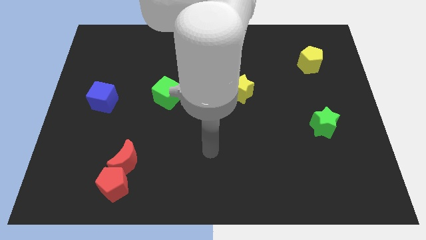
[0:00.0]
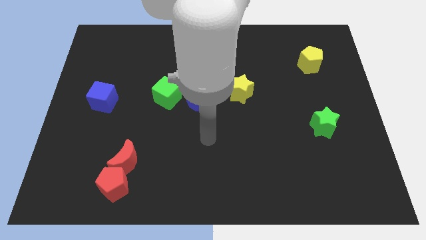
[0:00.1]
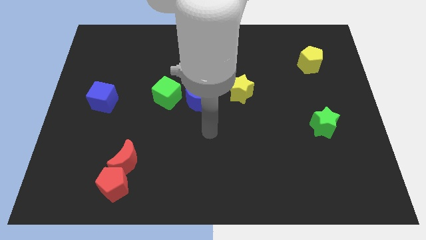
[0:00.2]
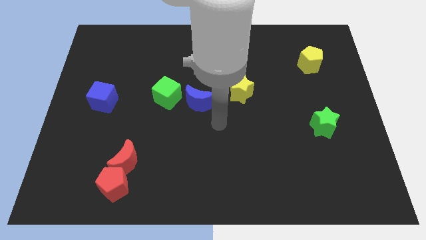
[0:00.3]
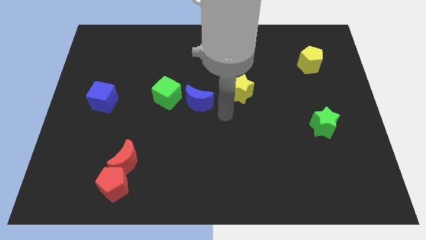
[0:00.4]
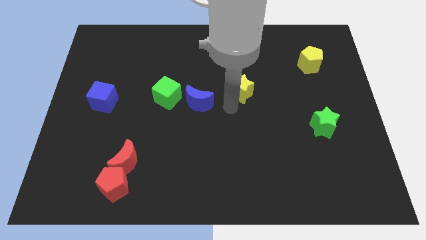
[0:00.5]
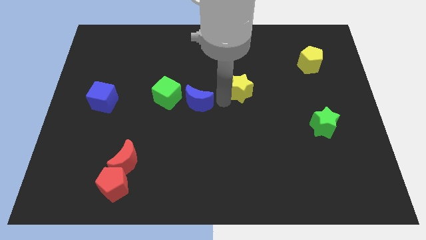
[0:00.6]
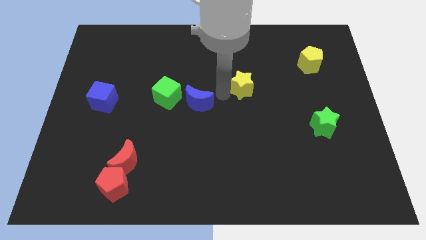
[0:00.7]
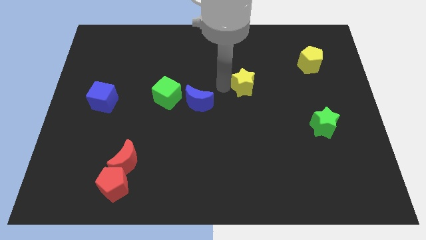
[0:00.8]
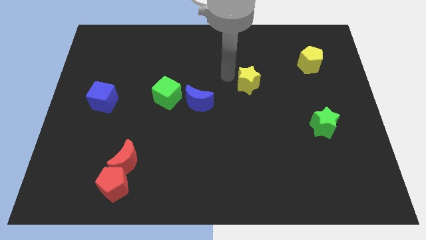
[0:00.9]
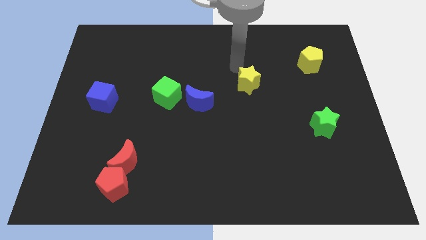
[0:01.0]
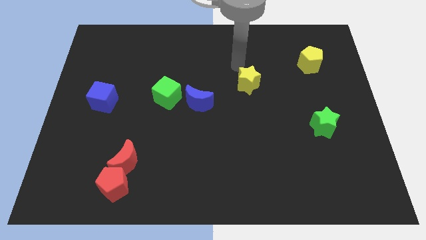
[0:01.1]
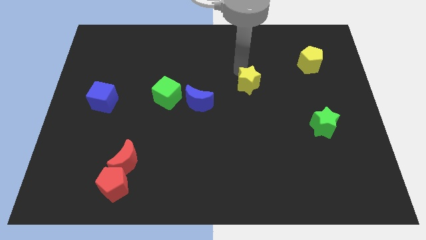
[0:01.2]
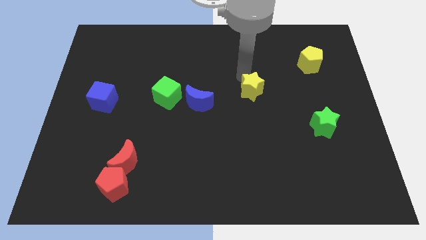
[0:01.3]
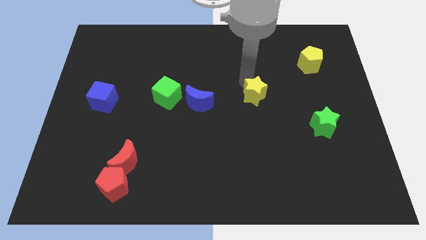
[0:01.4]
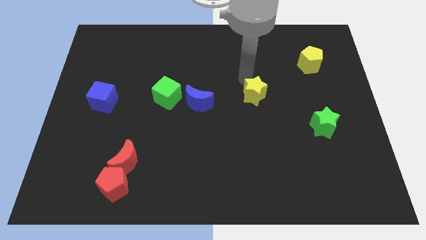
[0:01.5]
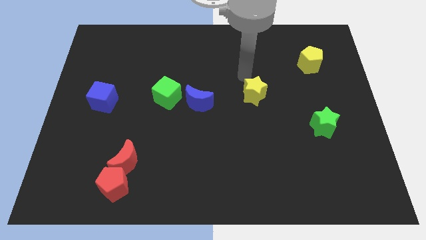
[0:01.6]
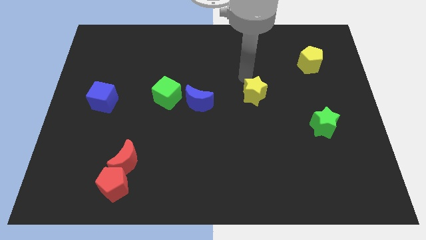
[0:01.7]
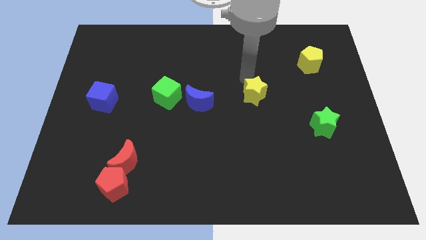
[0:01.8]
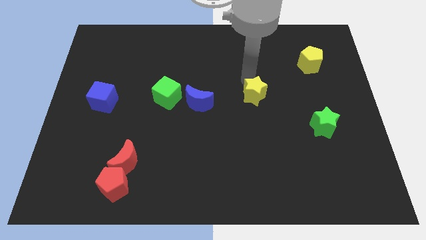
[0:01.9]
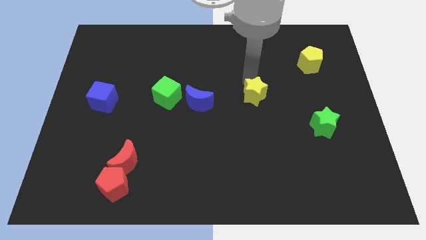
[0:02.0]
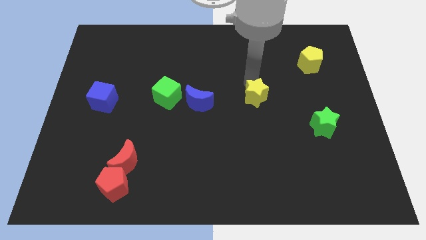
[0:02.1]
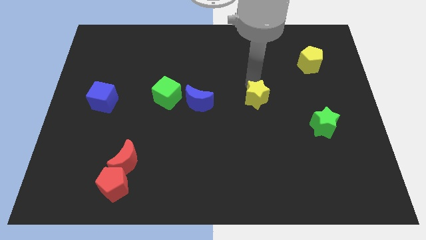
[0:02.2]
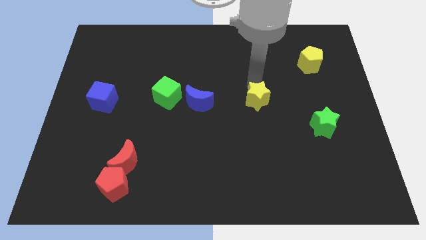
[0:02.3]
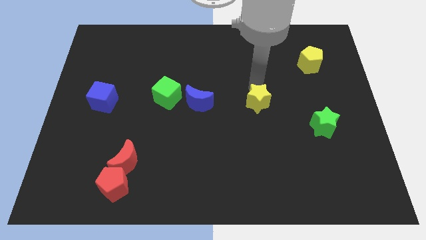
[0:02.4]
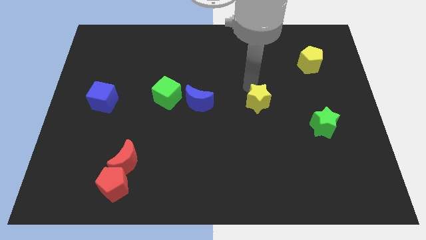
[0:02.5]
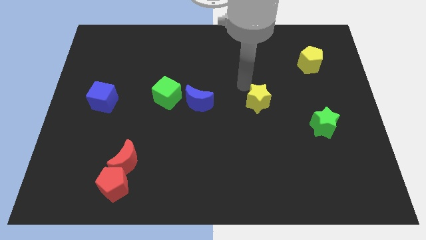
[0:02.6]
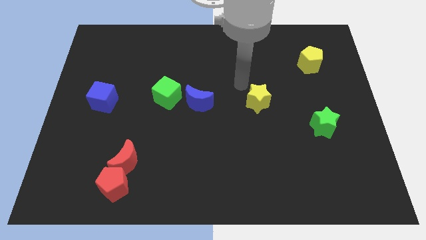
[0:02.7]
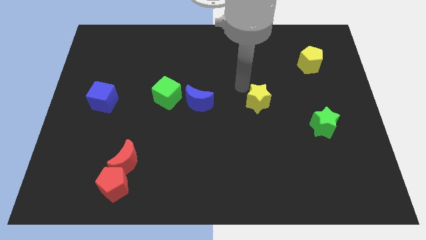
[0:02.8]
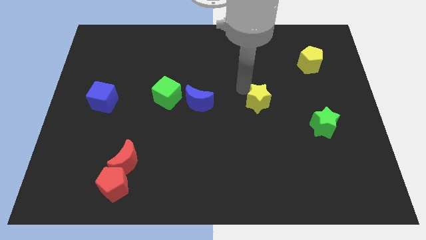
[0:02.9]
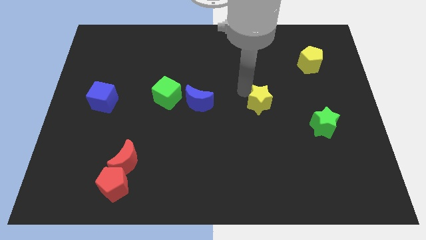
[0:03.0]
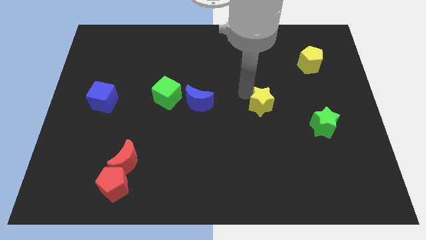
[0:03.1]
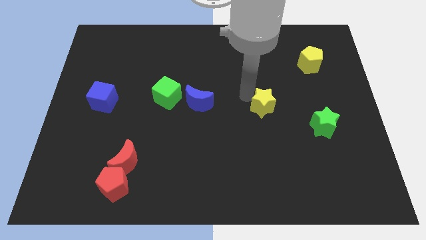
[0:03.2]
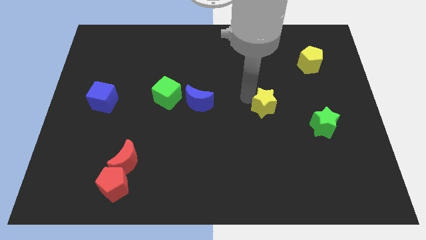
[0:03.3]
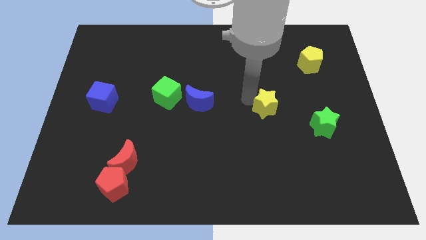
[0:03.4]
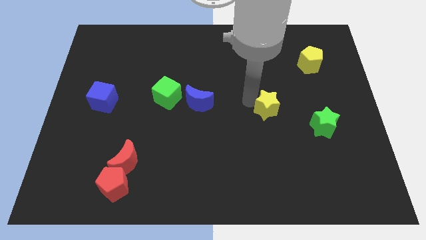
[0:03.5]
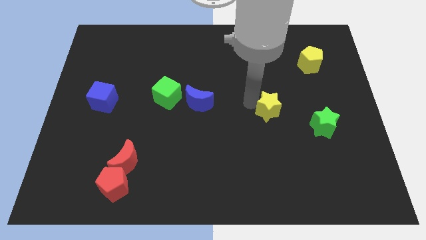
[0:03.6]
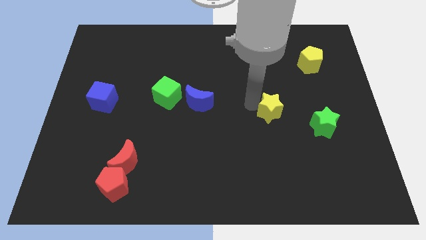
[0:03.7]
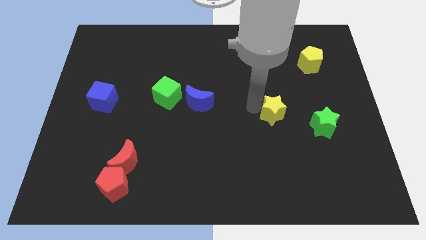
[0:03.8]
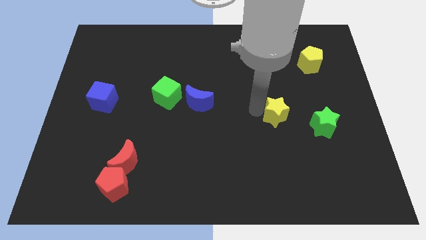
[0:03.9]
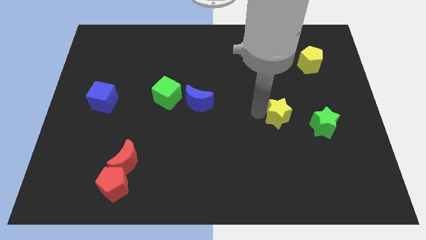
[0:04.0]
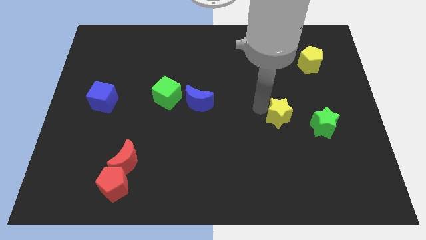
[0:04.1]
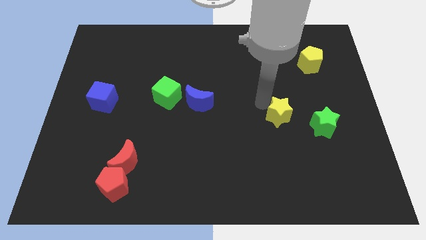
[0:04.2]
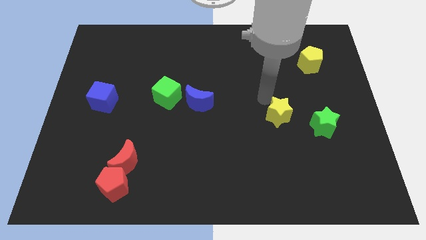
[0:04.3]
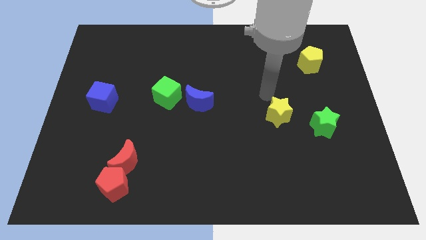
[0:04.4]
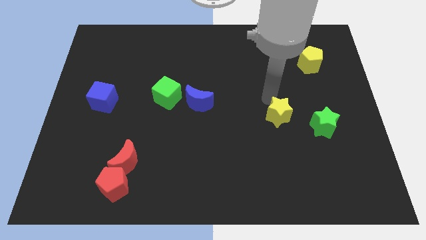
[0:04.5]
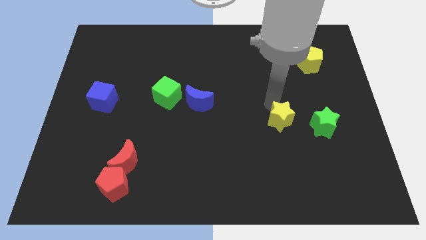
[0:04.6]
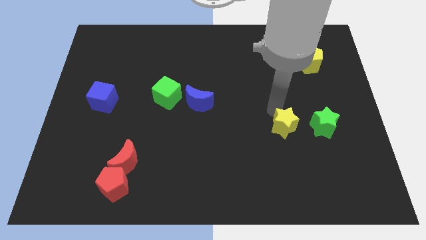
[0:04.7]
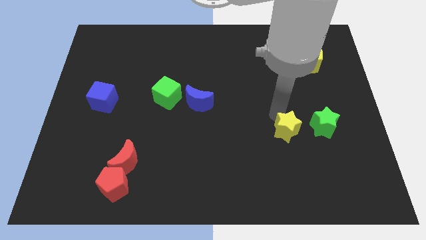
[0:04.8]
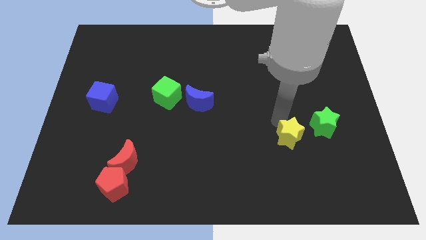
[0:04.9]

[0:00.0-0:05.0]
slide the yellow star diagonally down and to the left of the green star

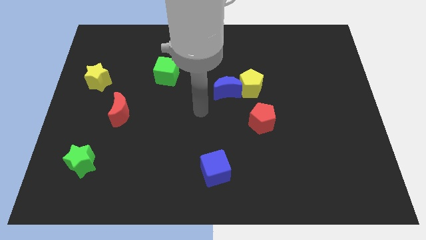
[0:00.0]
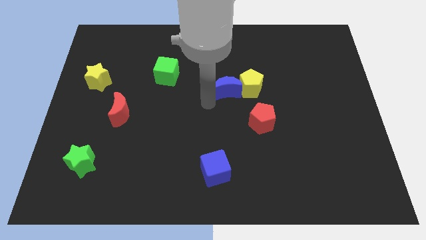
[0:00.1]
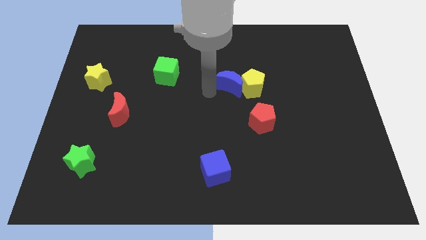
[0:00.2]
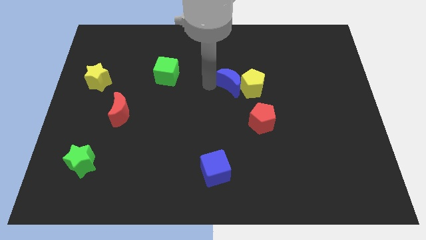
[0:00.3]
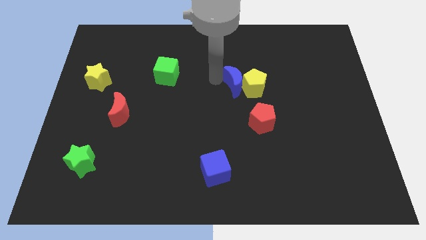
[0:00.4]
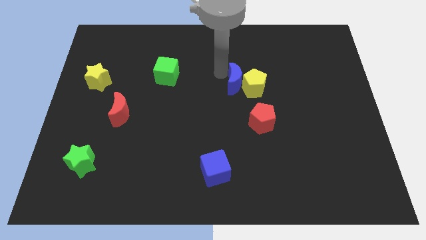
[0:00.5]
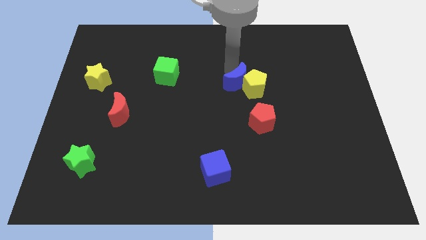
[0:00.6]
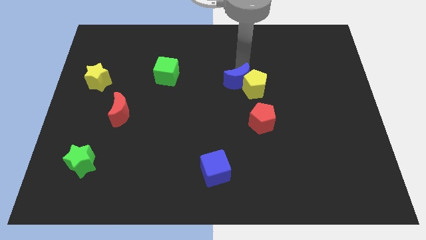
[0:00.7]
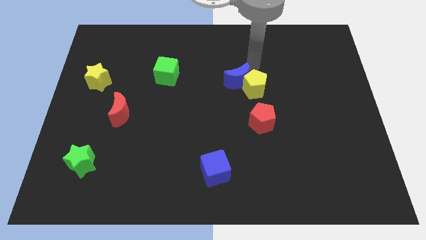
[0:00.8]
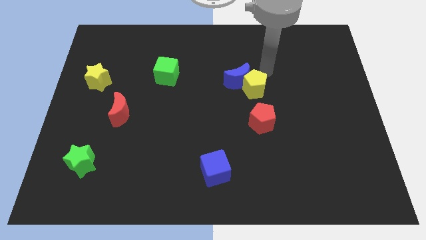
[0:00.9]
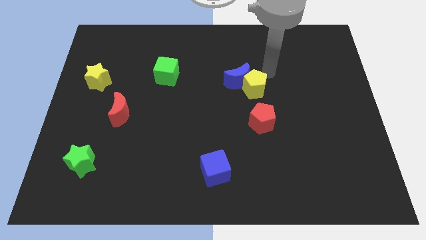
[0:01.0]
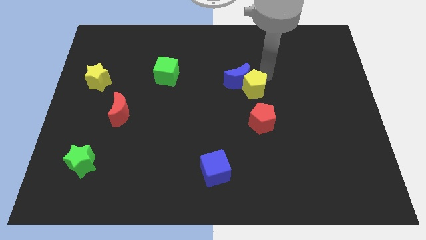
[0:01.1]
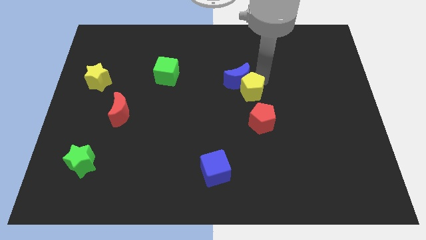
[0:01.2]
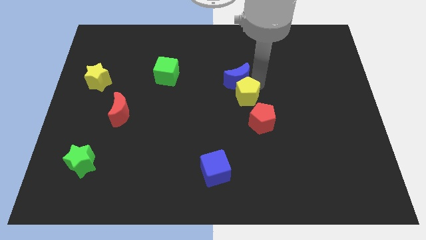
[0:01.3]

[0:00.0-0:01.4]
slide the yellow pentagon diagonally up and to the left of the red pentagon
